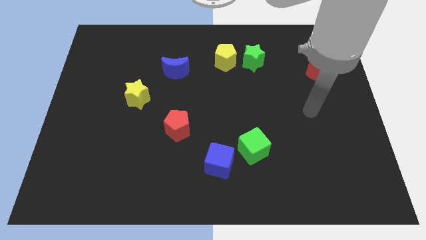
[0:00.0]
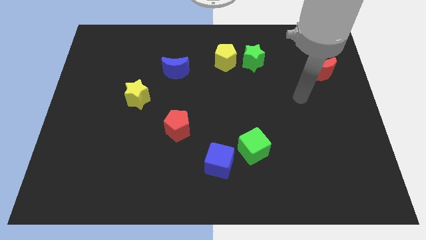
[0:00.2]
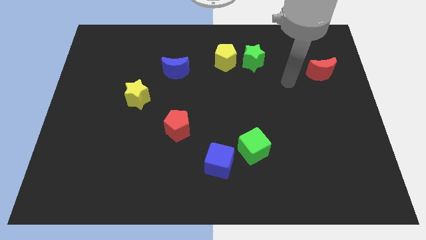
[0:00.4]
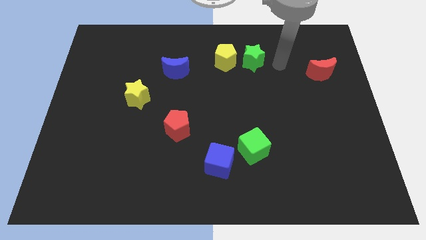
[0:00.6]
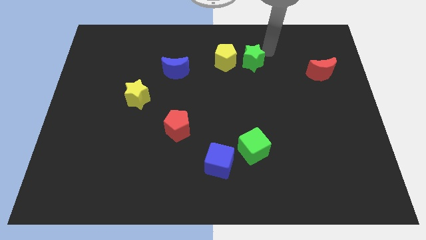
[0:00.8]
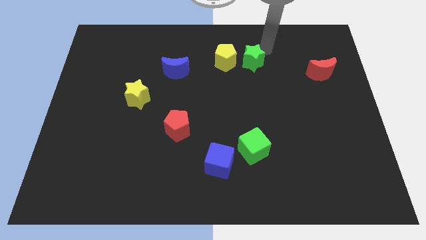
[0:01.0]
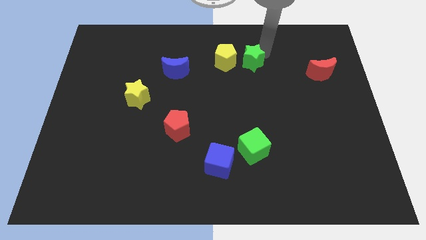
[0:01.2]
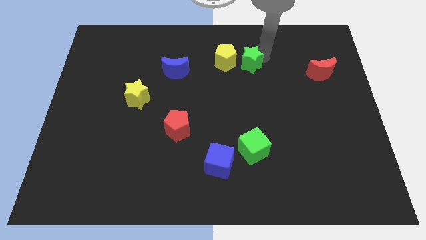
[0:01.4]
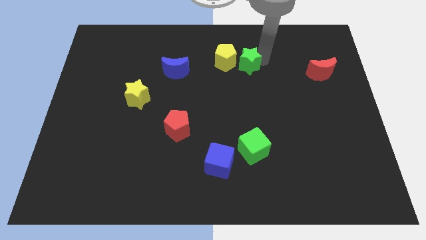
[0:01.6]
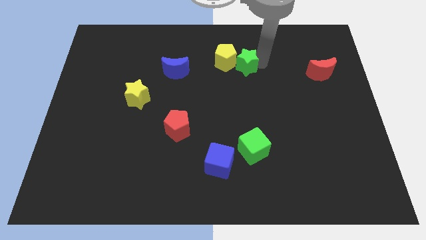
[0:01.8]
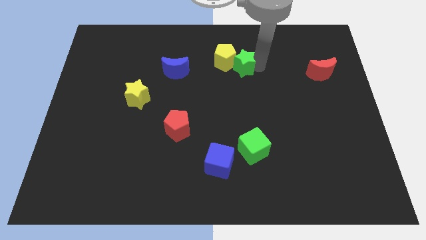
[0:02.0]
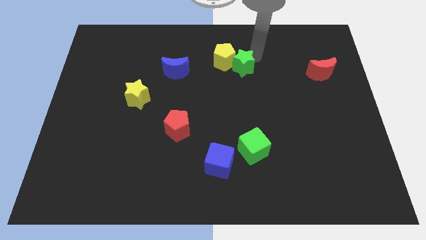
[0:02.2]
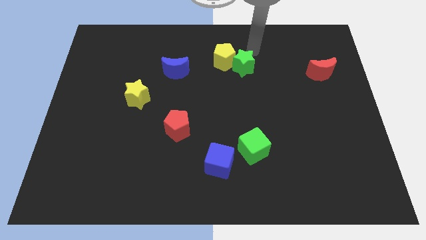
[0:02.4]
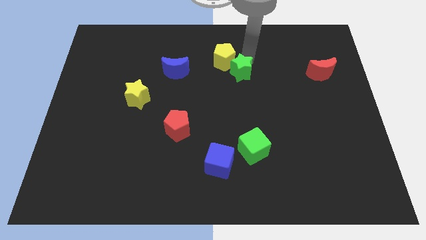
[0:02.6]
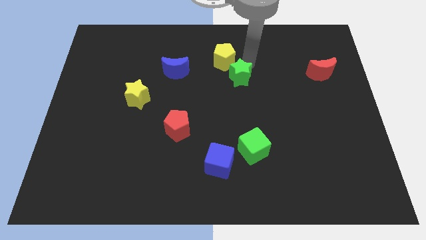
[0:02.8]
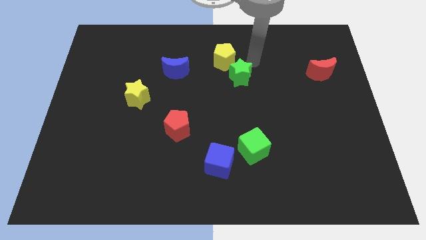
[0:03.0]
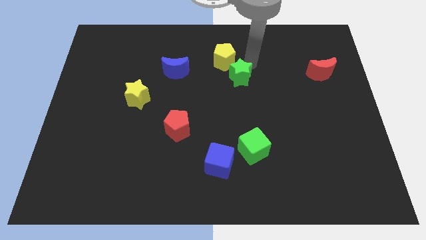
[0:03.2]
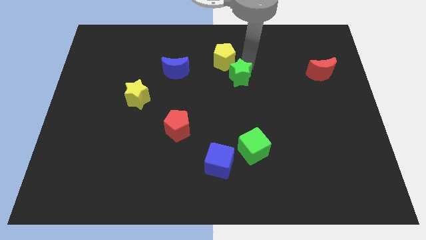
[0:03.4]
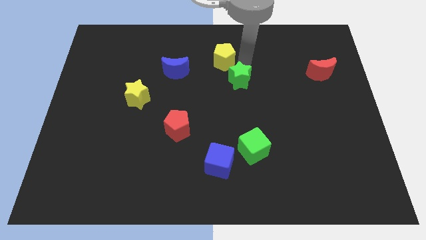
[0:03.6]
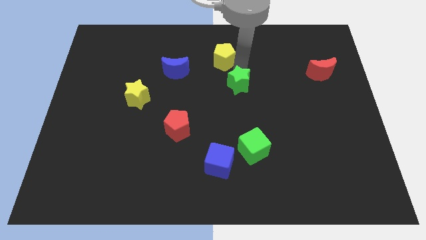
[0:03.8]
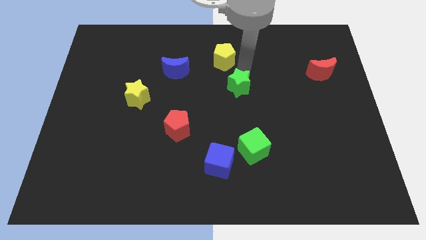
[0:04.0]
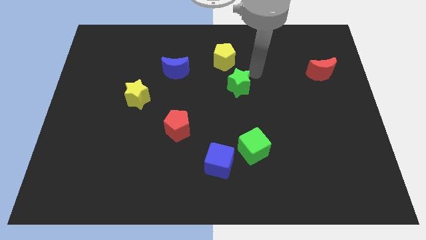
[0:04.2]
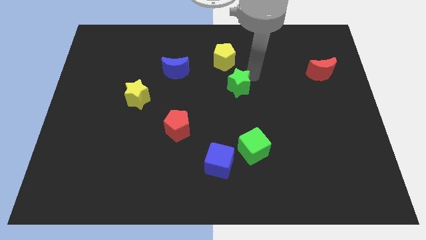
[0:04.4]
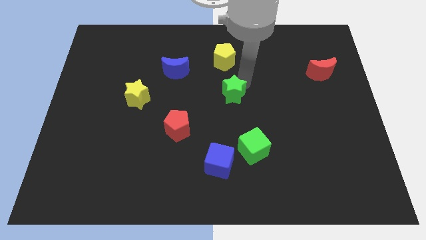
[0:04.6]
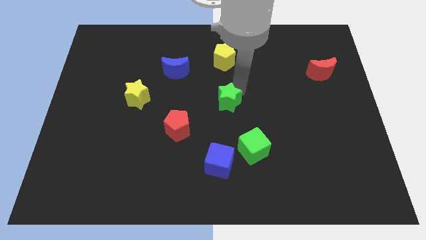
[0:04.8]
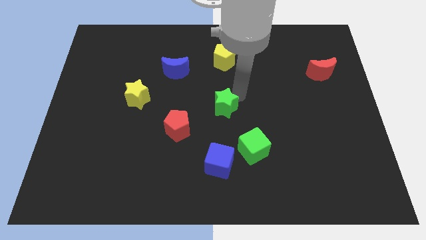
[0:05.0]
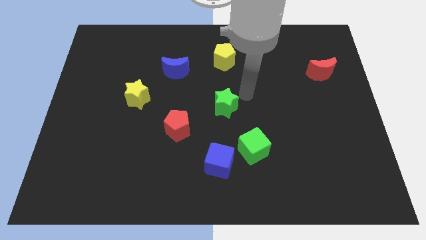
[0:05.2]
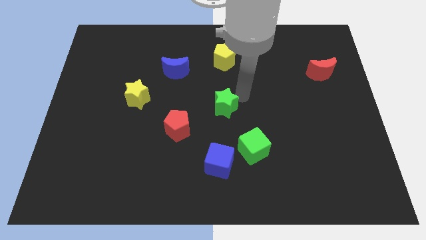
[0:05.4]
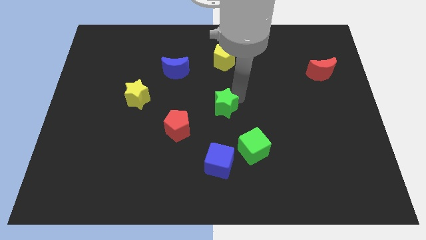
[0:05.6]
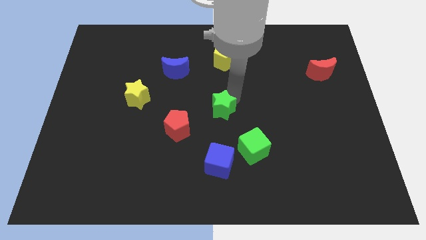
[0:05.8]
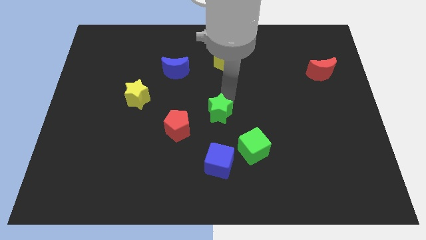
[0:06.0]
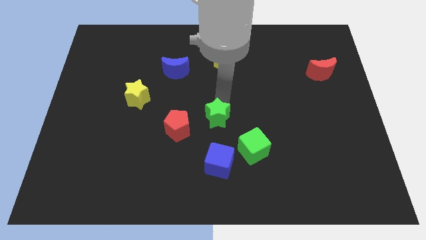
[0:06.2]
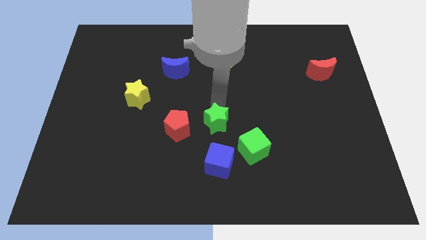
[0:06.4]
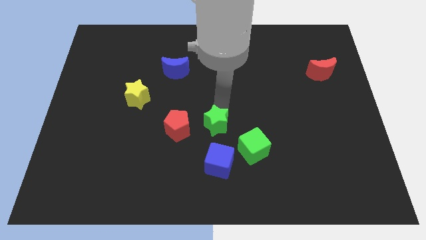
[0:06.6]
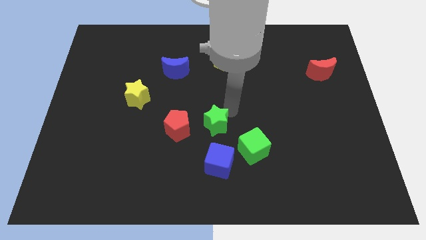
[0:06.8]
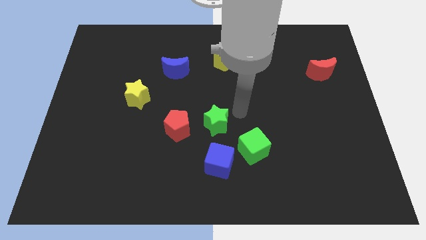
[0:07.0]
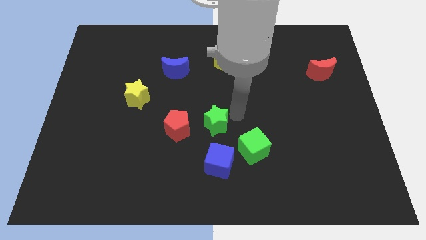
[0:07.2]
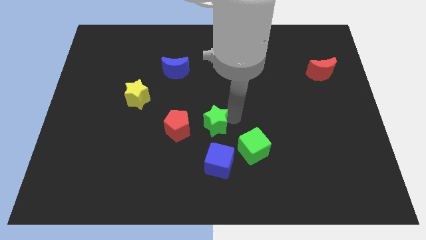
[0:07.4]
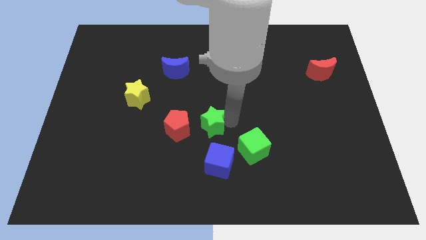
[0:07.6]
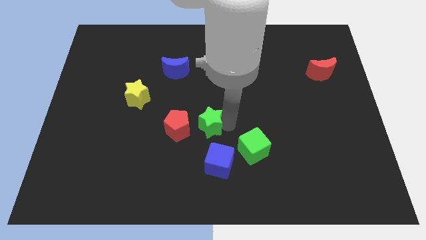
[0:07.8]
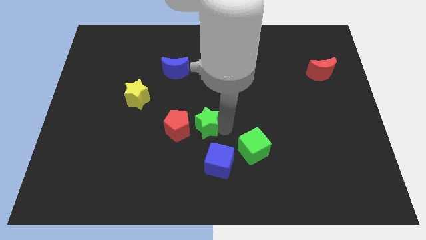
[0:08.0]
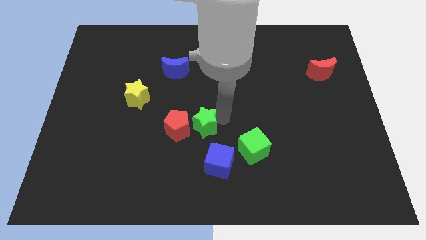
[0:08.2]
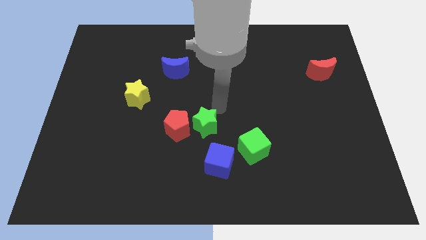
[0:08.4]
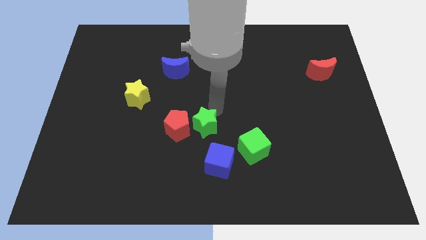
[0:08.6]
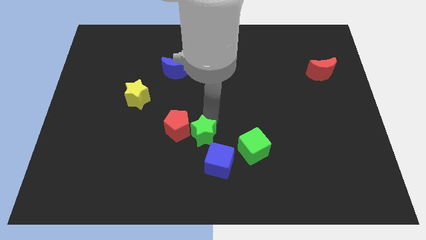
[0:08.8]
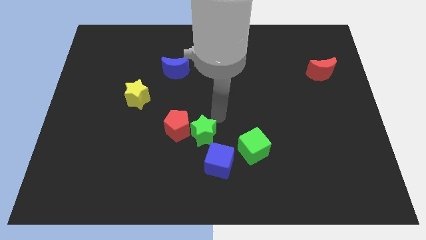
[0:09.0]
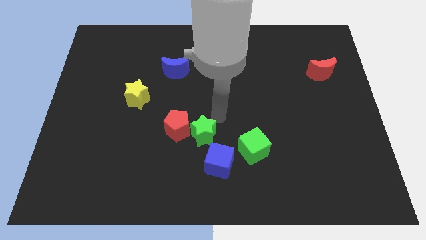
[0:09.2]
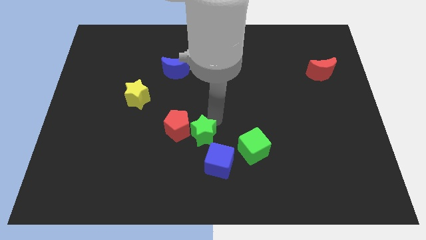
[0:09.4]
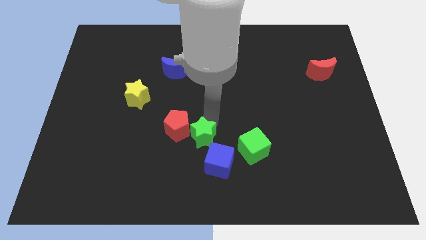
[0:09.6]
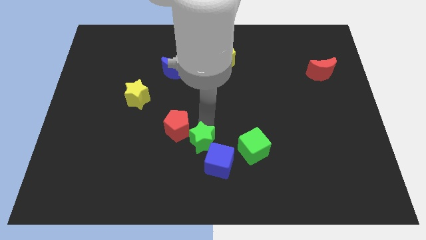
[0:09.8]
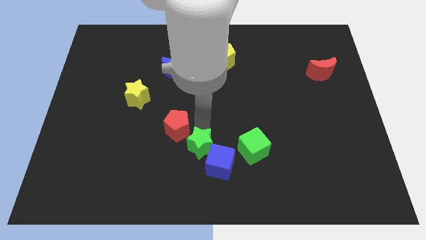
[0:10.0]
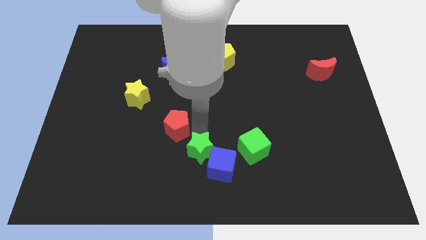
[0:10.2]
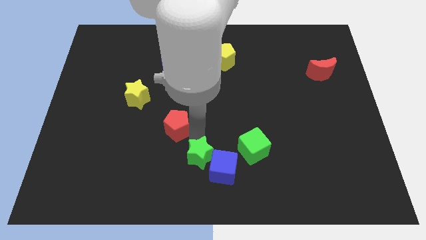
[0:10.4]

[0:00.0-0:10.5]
slide the green star to the bottom

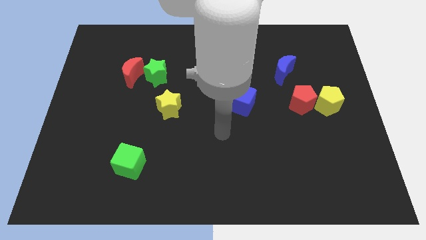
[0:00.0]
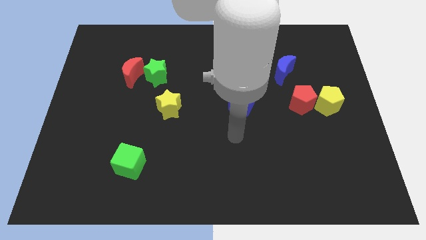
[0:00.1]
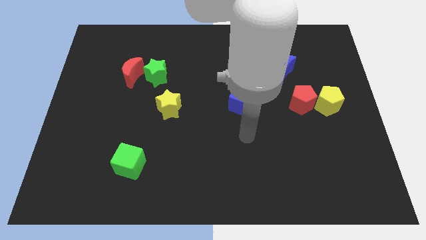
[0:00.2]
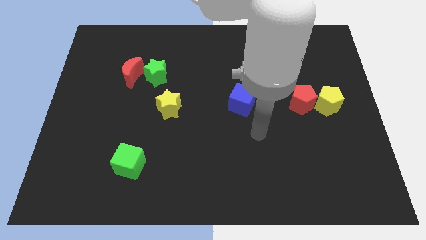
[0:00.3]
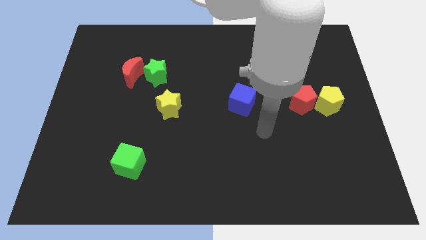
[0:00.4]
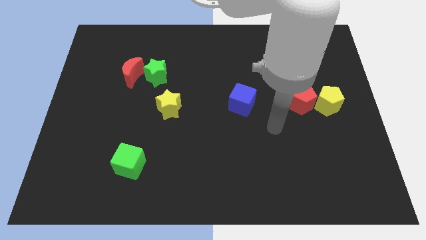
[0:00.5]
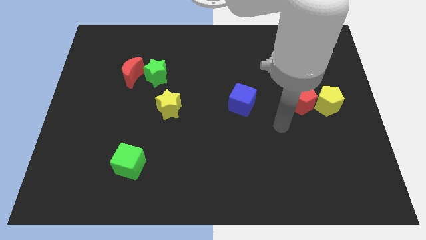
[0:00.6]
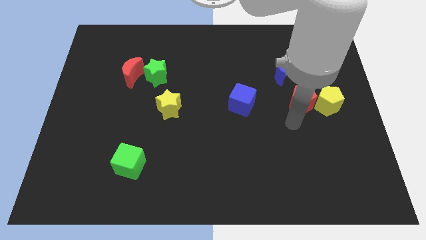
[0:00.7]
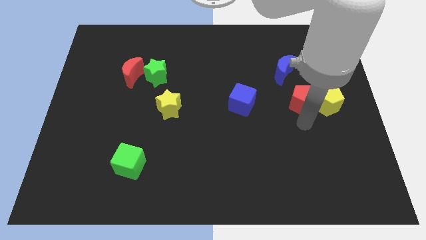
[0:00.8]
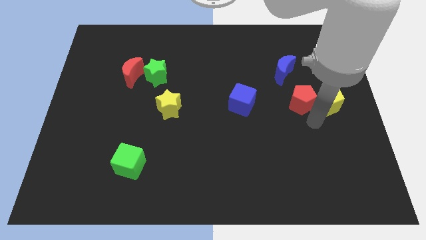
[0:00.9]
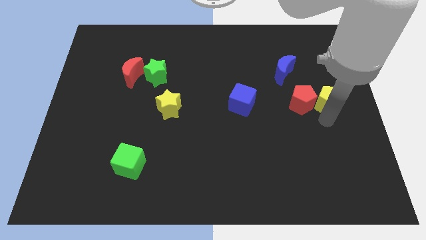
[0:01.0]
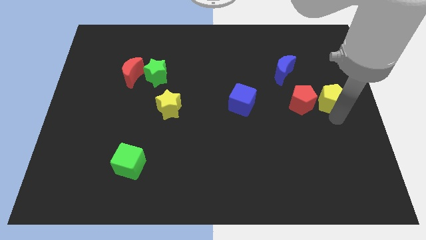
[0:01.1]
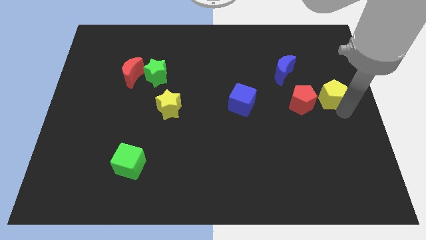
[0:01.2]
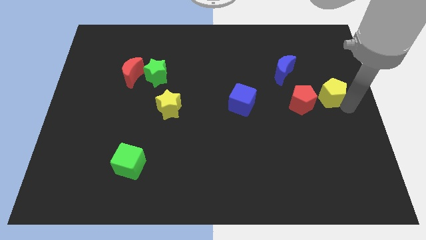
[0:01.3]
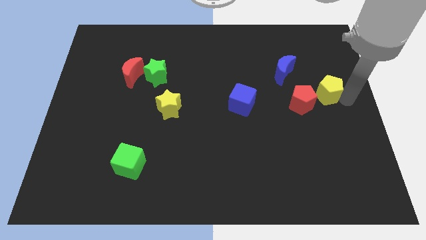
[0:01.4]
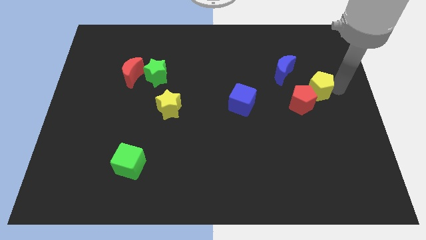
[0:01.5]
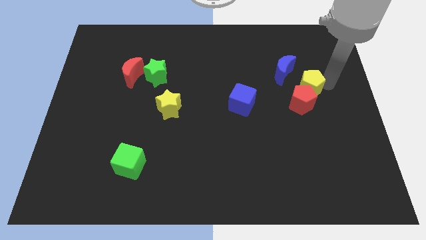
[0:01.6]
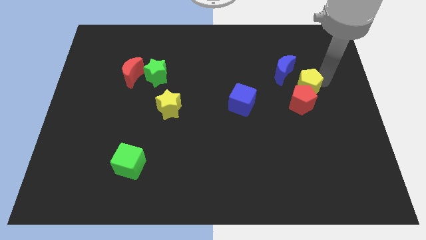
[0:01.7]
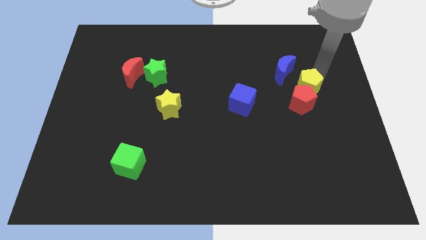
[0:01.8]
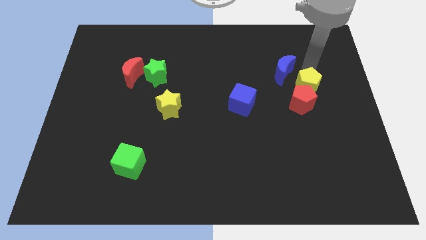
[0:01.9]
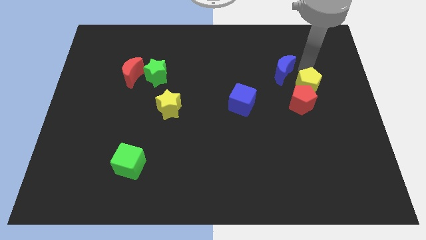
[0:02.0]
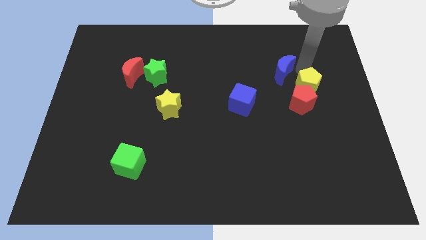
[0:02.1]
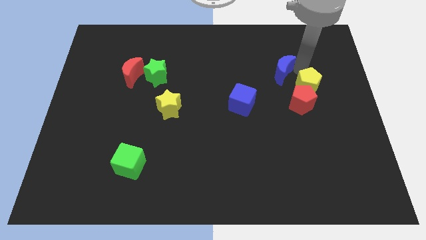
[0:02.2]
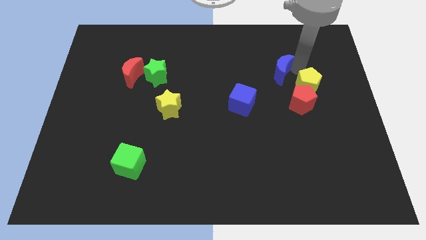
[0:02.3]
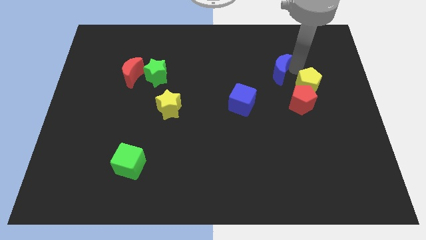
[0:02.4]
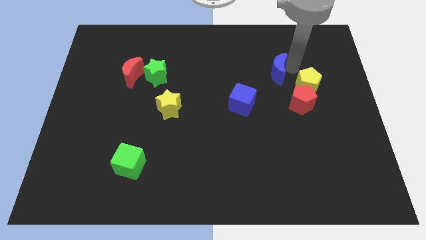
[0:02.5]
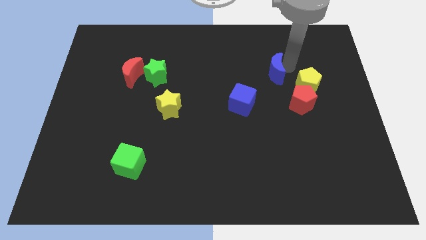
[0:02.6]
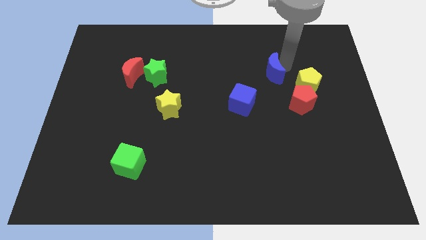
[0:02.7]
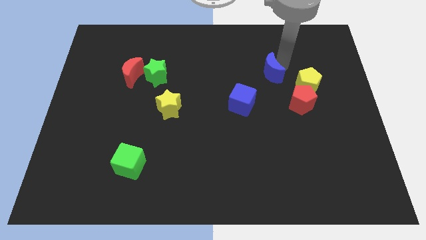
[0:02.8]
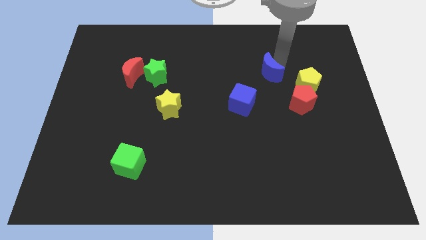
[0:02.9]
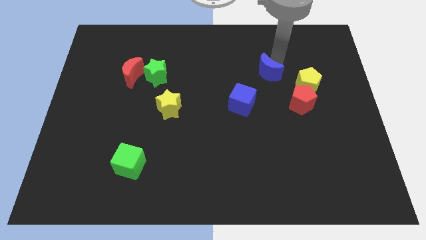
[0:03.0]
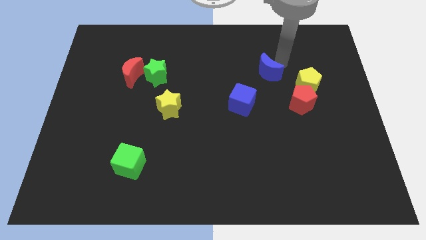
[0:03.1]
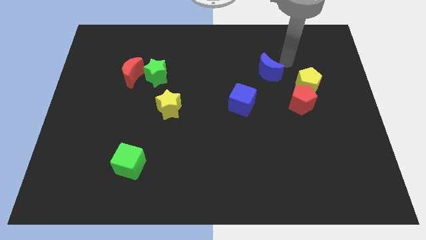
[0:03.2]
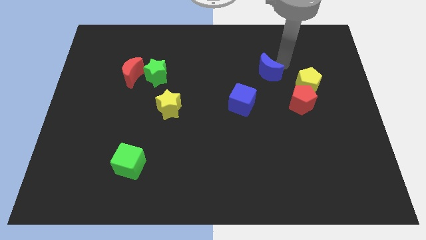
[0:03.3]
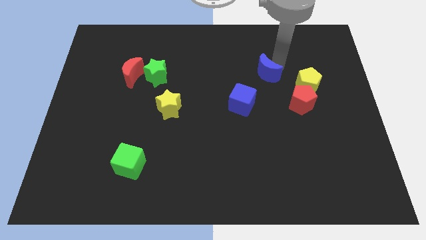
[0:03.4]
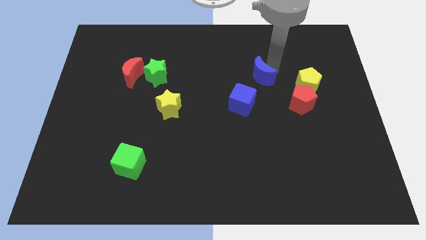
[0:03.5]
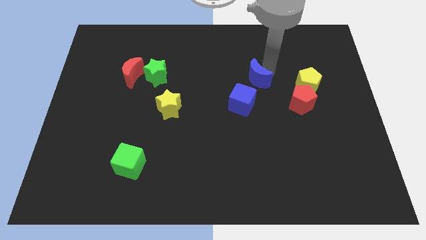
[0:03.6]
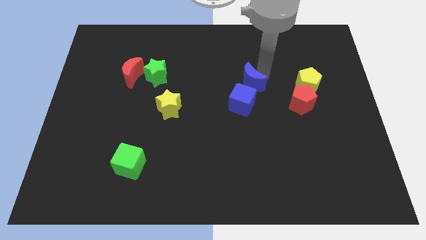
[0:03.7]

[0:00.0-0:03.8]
move the blue moon to the middle of the board
